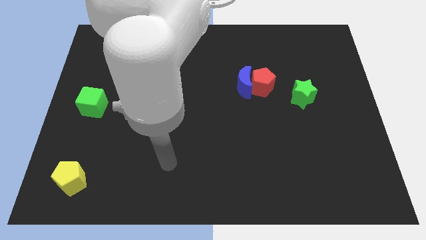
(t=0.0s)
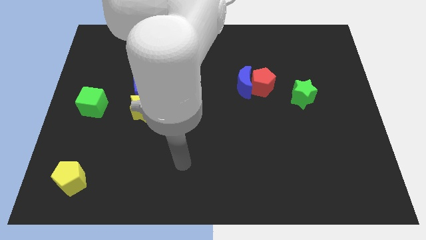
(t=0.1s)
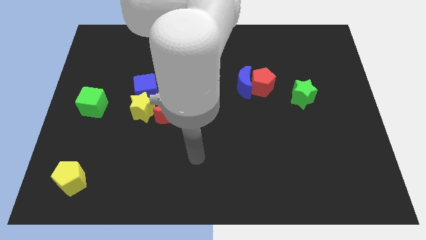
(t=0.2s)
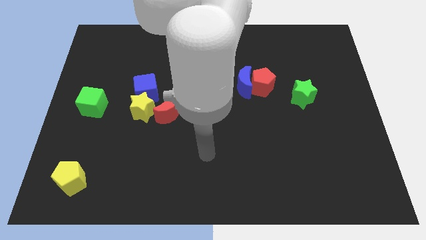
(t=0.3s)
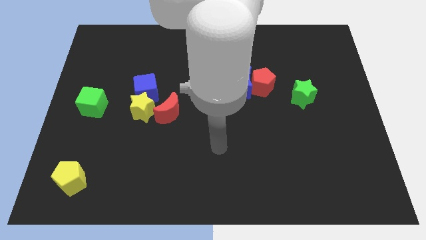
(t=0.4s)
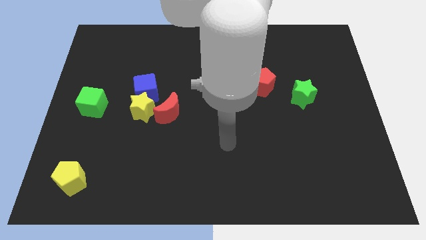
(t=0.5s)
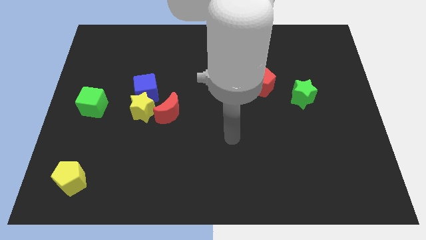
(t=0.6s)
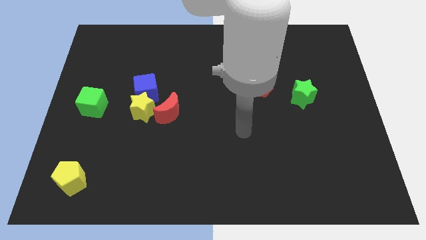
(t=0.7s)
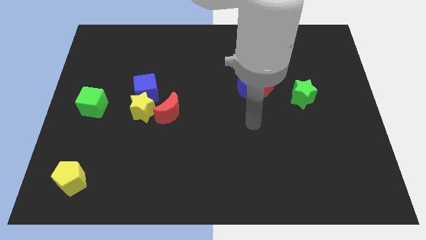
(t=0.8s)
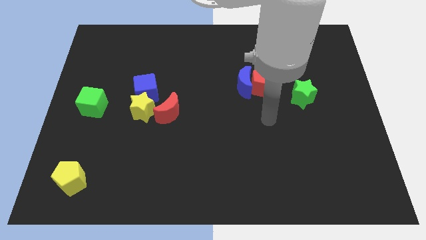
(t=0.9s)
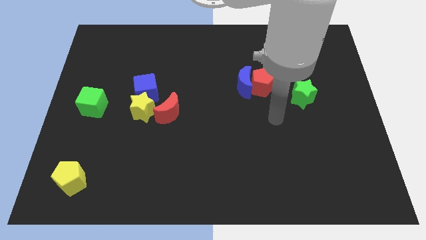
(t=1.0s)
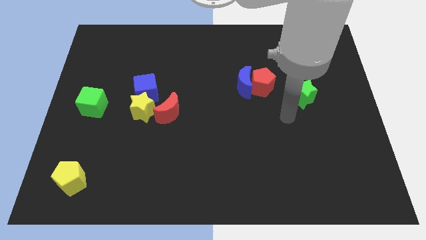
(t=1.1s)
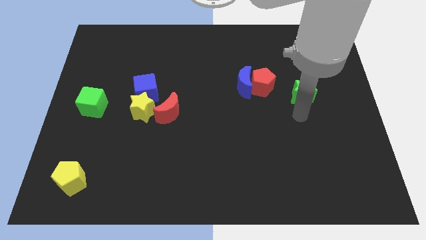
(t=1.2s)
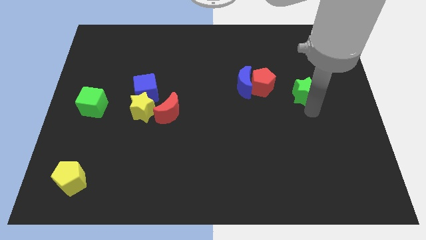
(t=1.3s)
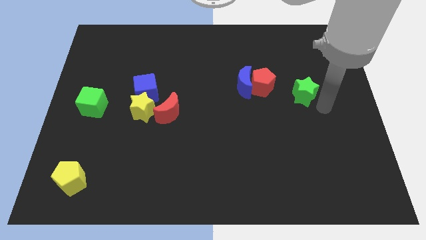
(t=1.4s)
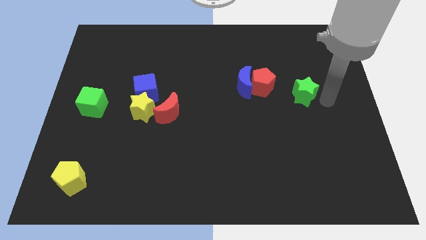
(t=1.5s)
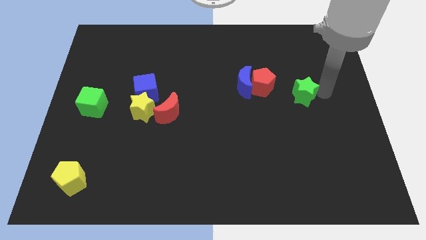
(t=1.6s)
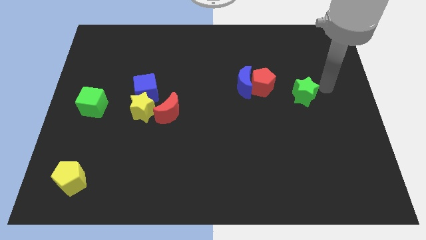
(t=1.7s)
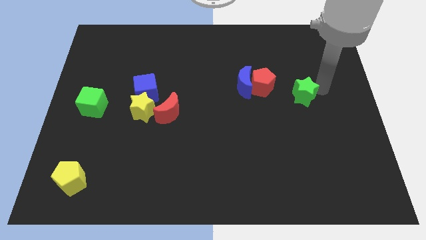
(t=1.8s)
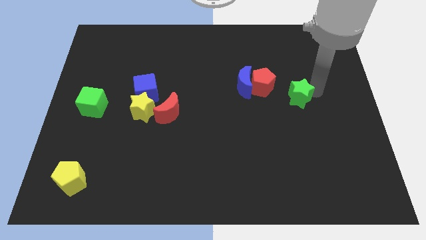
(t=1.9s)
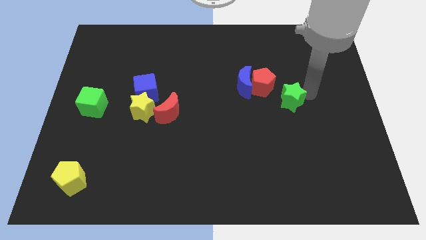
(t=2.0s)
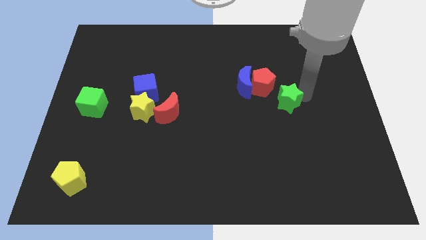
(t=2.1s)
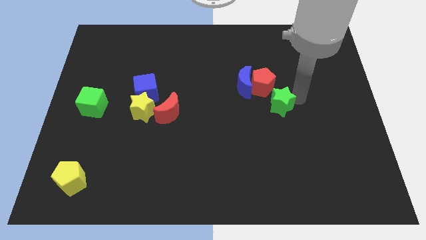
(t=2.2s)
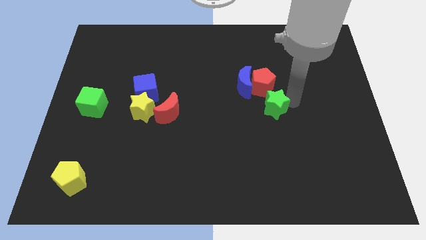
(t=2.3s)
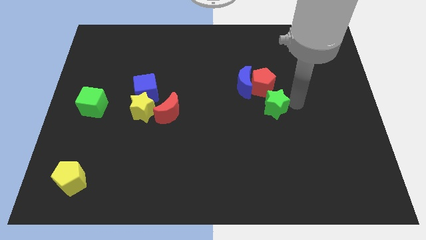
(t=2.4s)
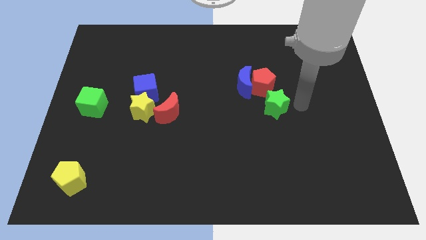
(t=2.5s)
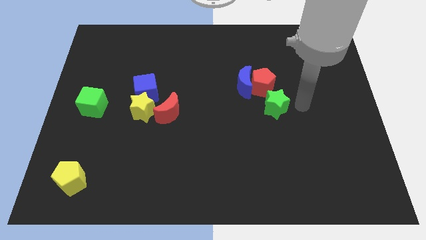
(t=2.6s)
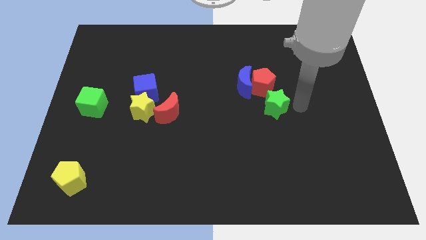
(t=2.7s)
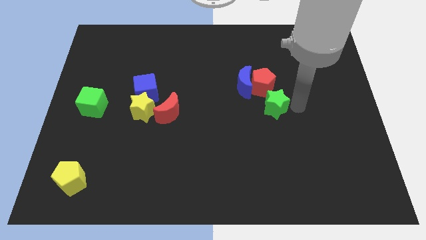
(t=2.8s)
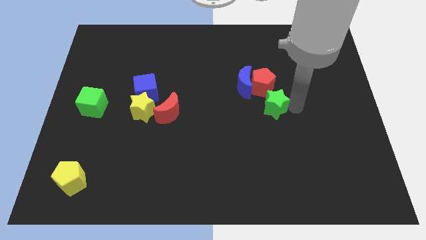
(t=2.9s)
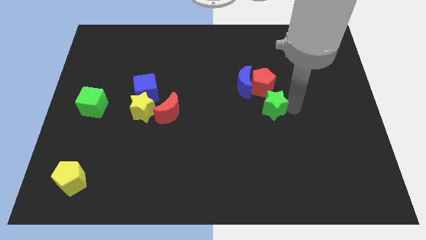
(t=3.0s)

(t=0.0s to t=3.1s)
move the green star a bit left

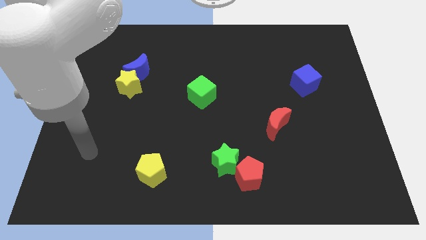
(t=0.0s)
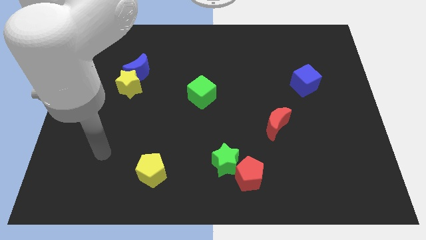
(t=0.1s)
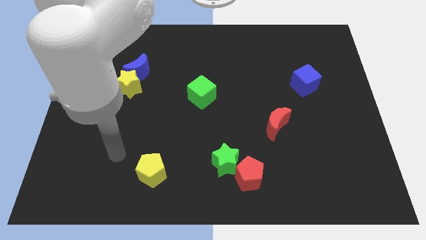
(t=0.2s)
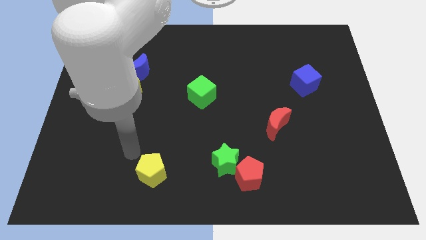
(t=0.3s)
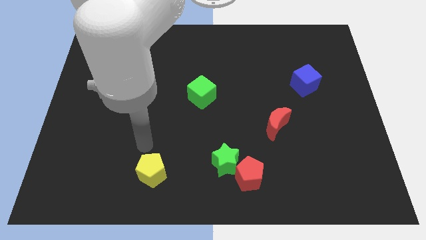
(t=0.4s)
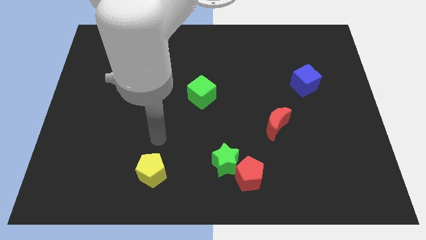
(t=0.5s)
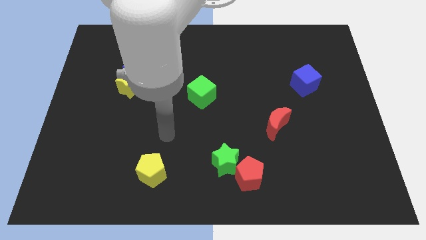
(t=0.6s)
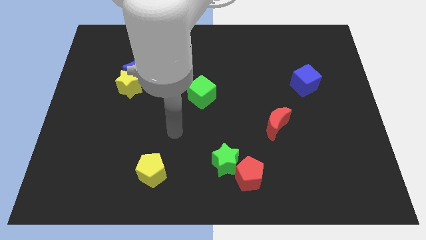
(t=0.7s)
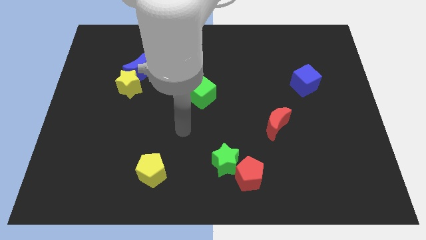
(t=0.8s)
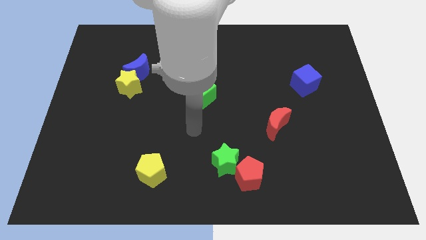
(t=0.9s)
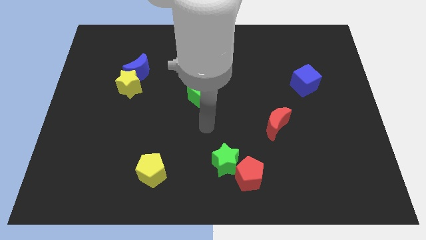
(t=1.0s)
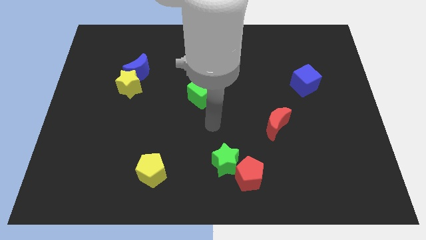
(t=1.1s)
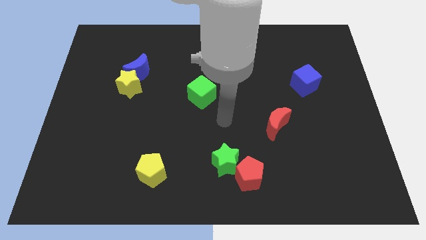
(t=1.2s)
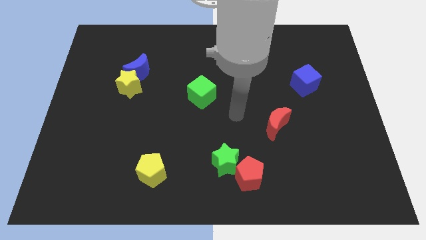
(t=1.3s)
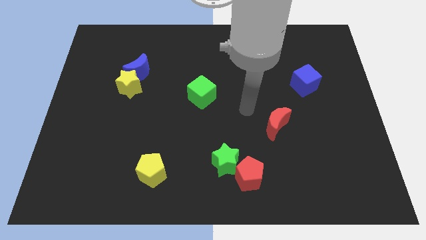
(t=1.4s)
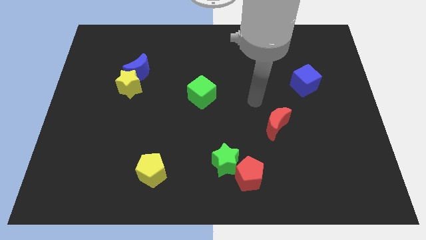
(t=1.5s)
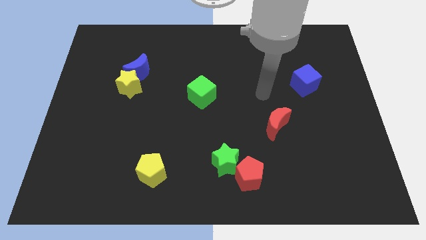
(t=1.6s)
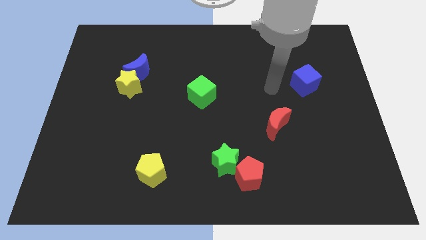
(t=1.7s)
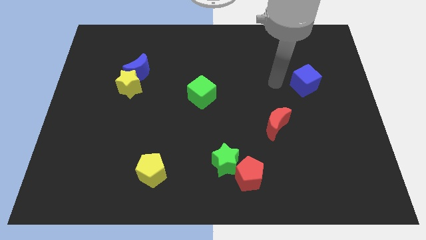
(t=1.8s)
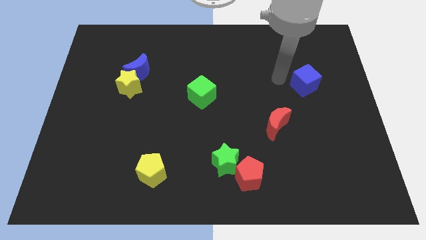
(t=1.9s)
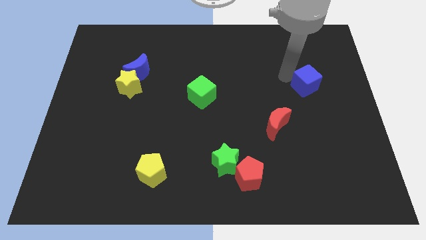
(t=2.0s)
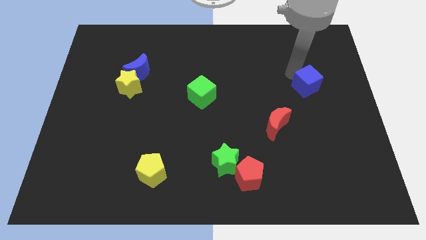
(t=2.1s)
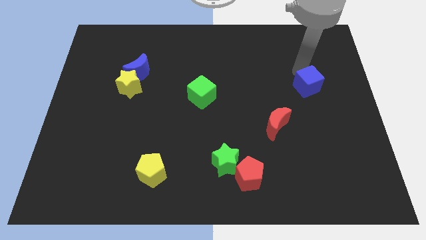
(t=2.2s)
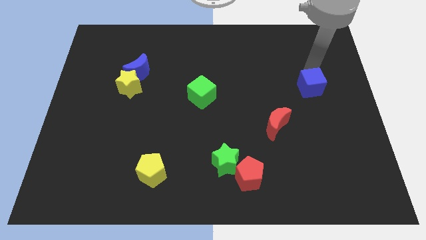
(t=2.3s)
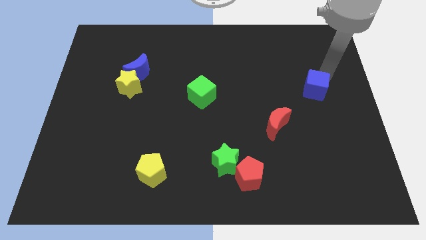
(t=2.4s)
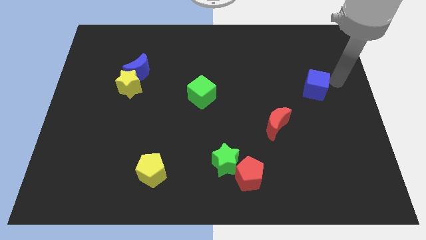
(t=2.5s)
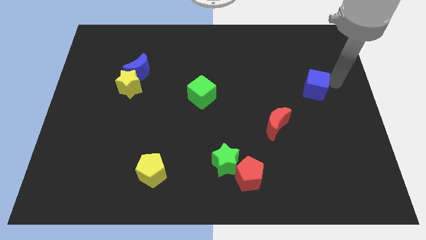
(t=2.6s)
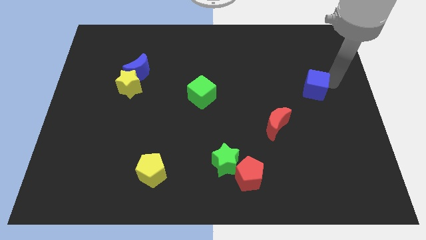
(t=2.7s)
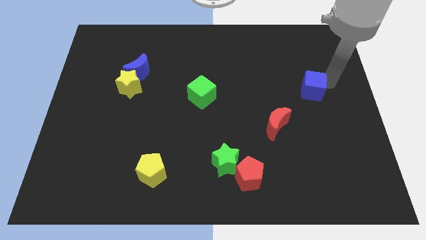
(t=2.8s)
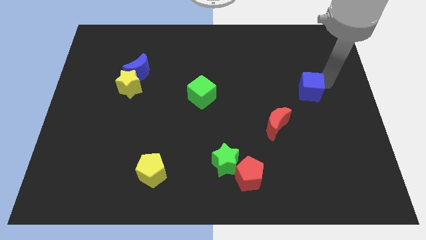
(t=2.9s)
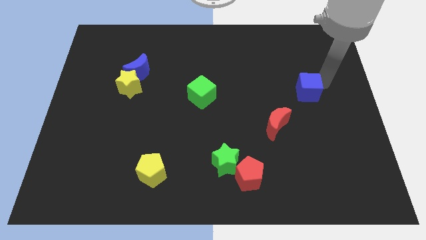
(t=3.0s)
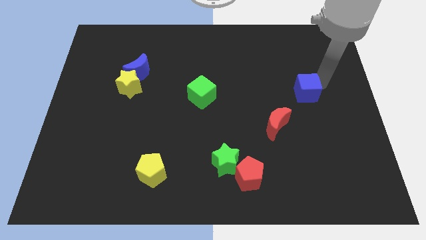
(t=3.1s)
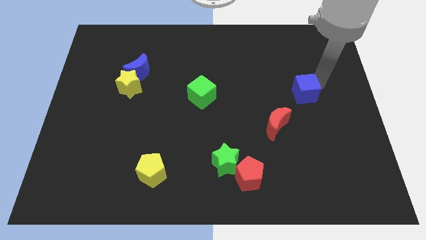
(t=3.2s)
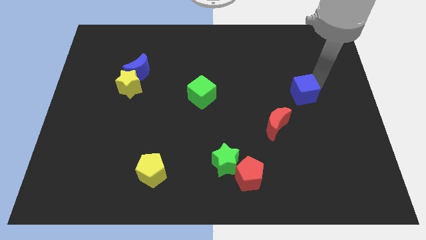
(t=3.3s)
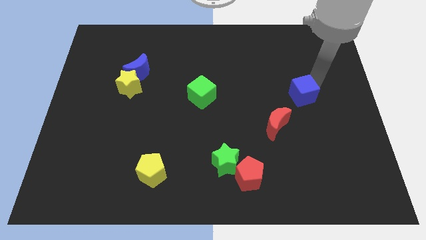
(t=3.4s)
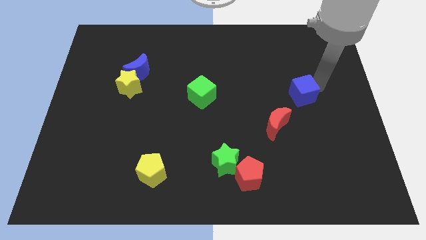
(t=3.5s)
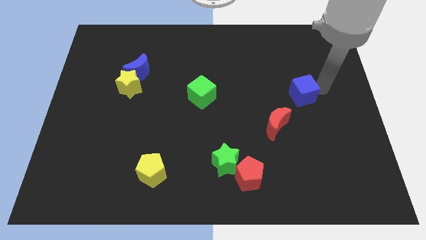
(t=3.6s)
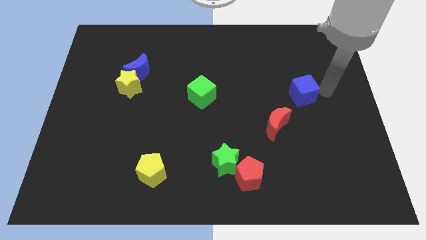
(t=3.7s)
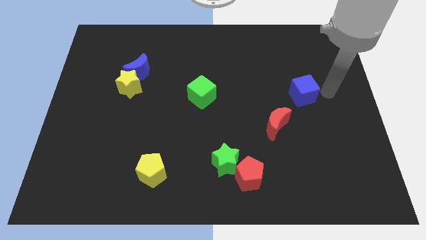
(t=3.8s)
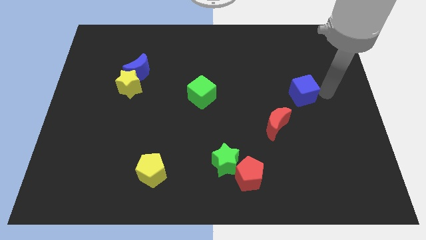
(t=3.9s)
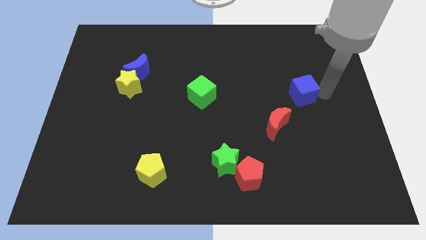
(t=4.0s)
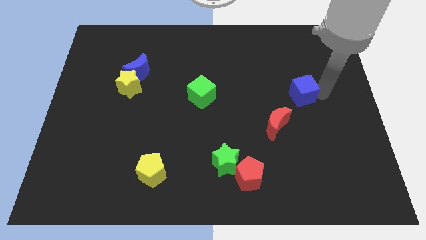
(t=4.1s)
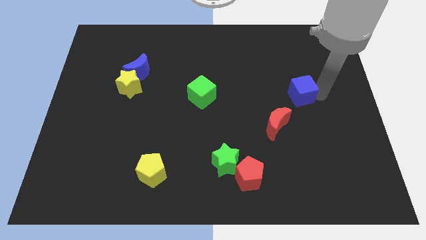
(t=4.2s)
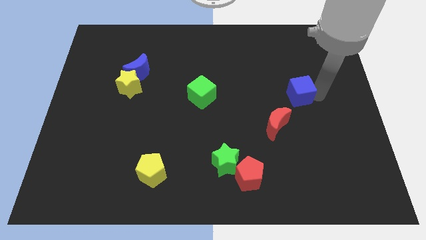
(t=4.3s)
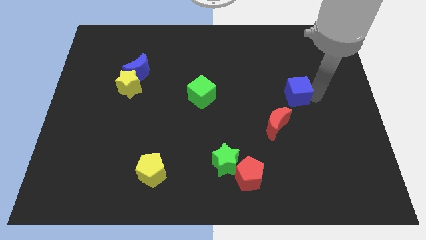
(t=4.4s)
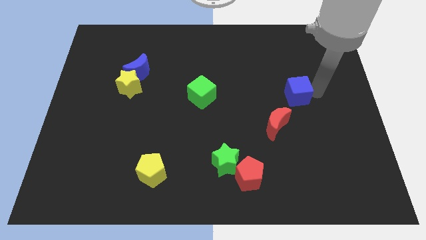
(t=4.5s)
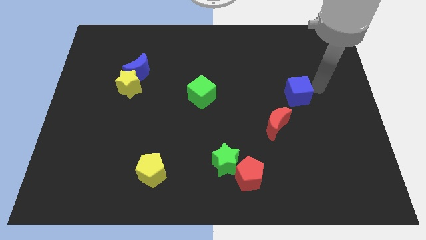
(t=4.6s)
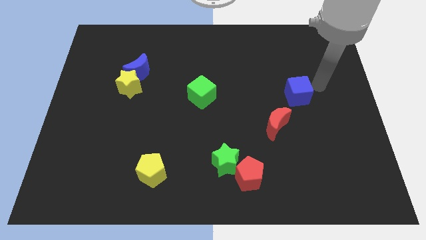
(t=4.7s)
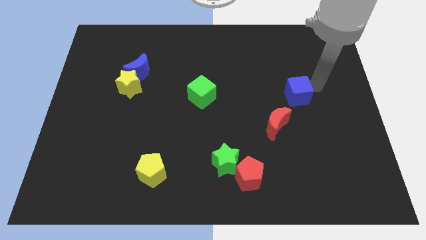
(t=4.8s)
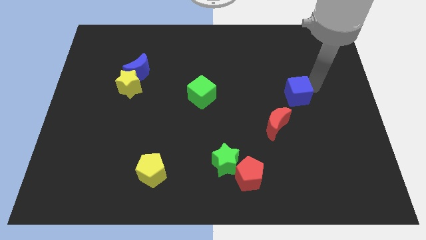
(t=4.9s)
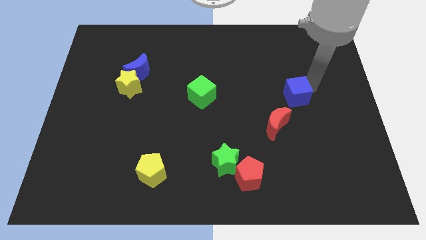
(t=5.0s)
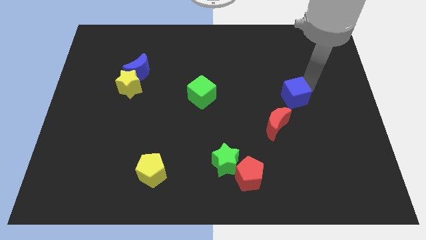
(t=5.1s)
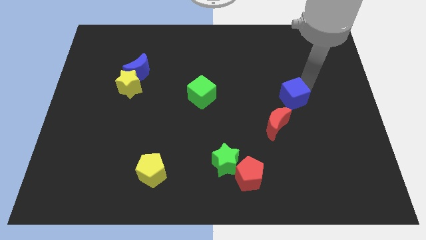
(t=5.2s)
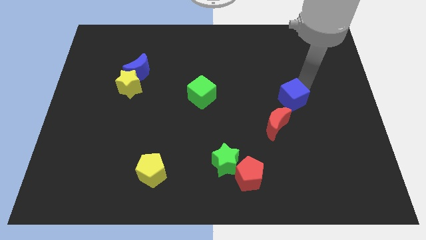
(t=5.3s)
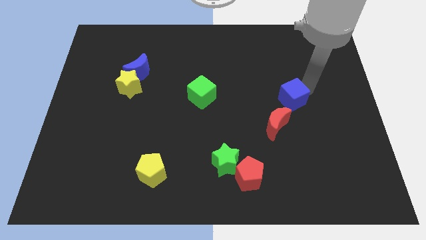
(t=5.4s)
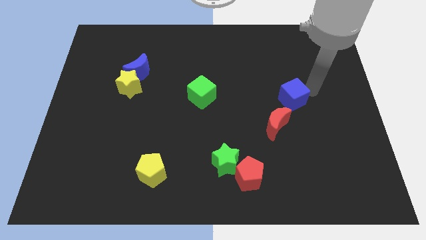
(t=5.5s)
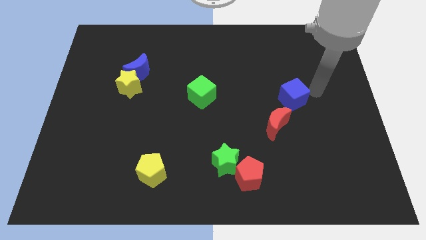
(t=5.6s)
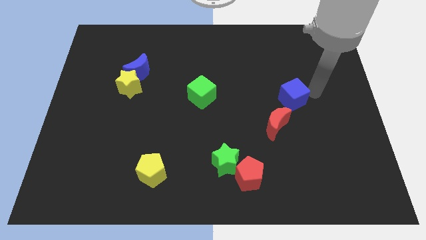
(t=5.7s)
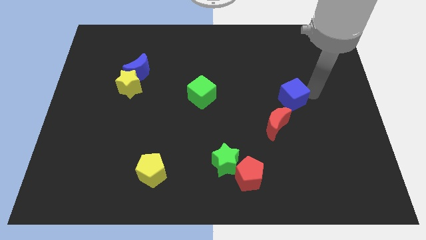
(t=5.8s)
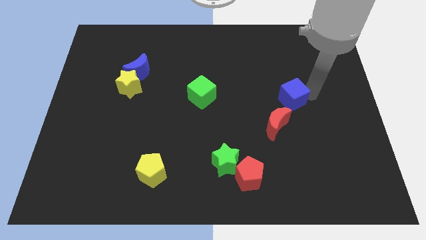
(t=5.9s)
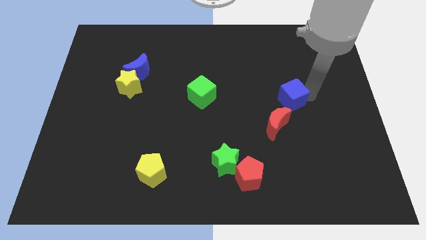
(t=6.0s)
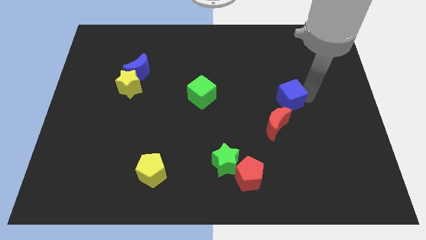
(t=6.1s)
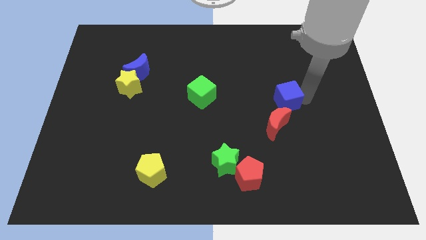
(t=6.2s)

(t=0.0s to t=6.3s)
move the blue cube down and to the left somewhat
